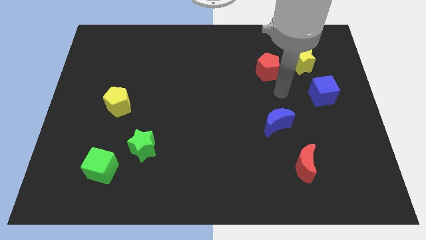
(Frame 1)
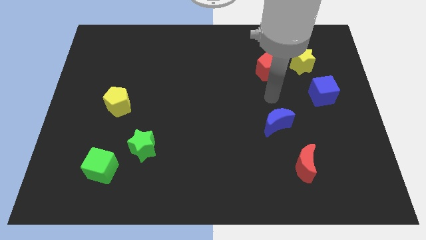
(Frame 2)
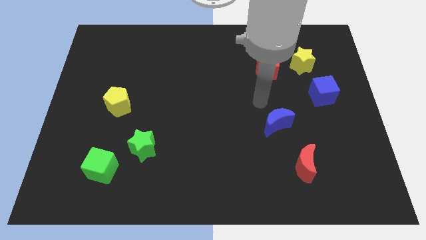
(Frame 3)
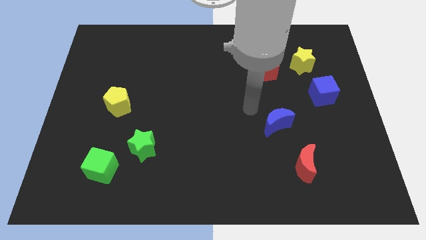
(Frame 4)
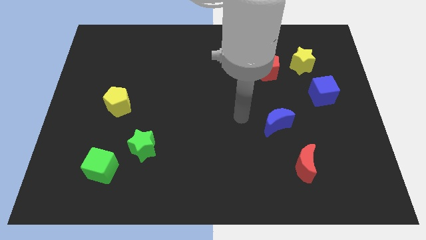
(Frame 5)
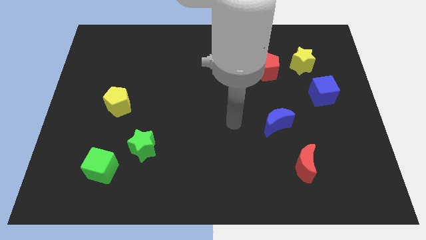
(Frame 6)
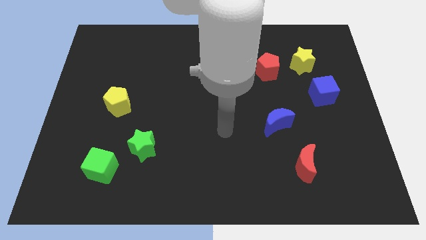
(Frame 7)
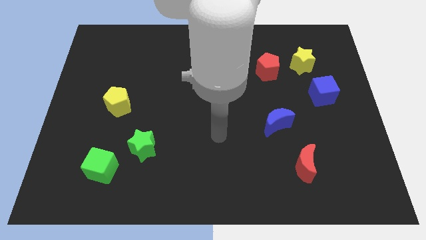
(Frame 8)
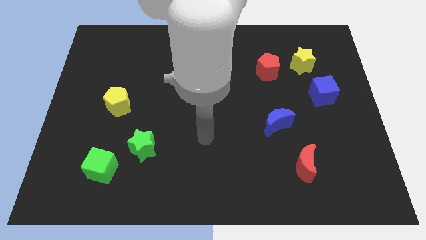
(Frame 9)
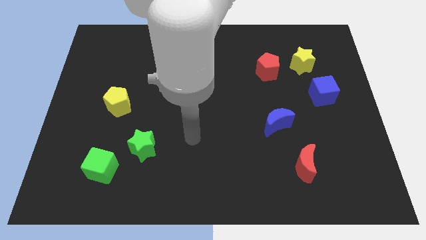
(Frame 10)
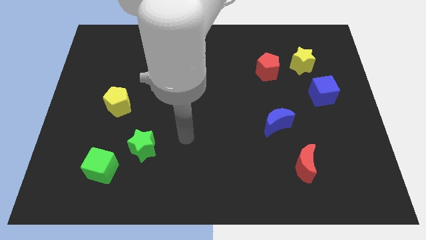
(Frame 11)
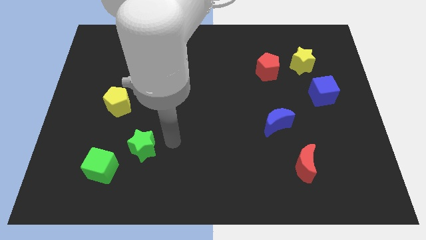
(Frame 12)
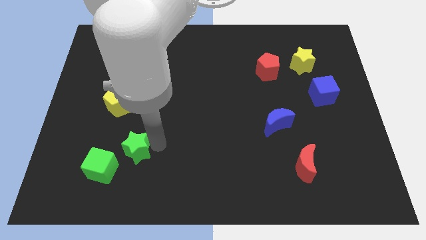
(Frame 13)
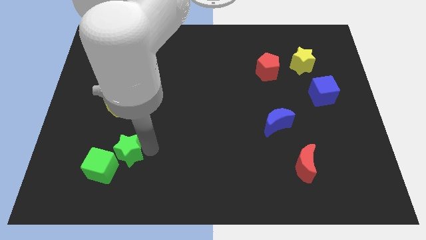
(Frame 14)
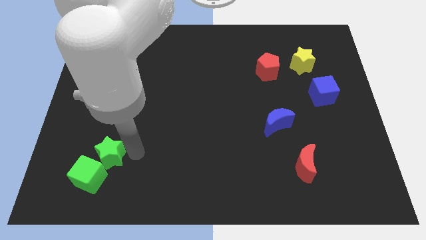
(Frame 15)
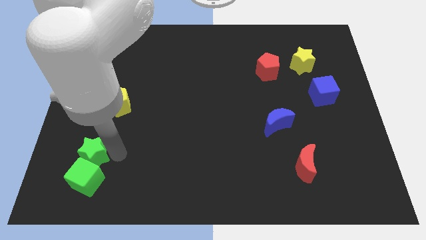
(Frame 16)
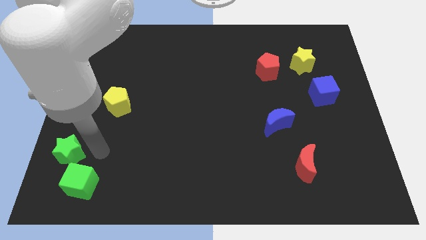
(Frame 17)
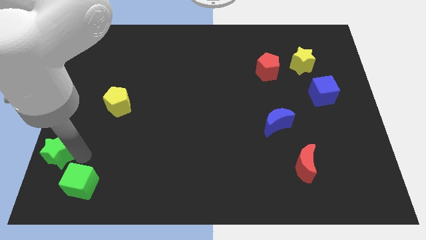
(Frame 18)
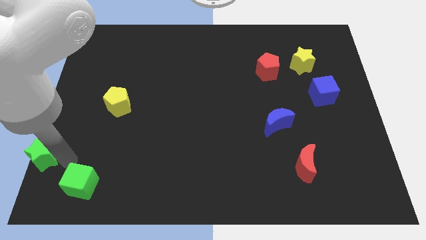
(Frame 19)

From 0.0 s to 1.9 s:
move the green cube away from the green star

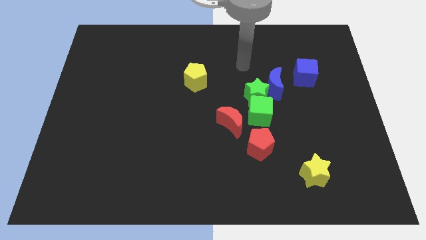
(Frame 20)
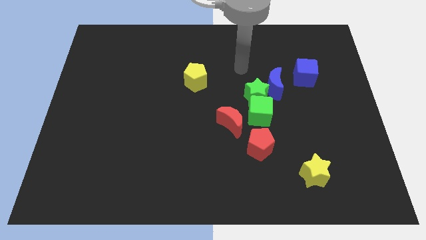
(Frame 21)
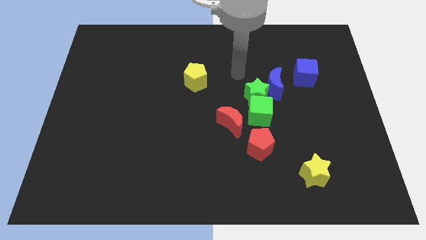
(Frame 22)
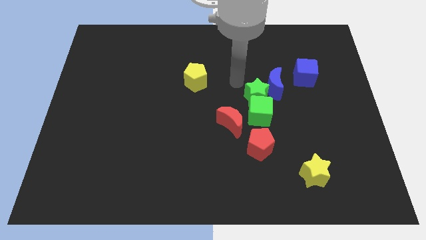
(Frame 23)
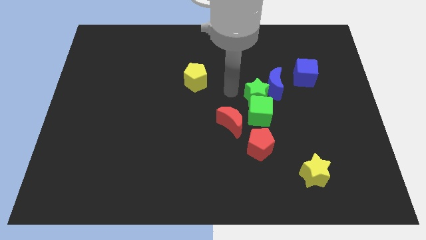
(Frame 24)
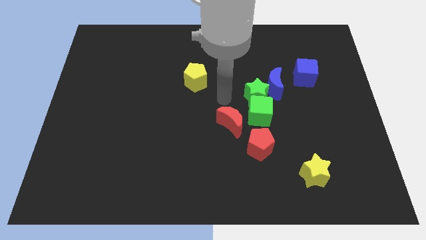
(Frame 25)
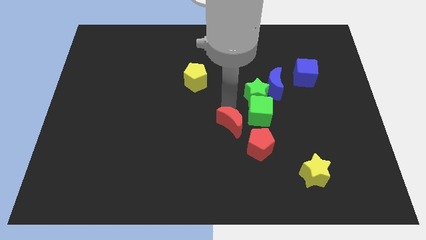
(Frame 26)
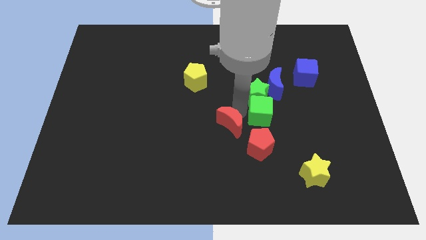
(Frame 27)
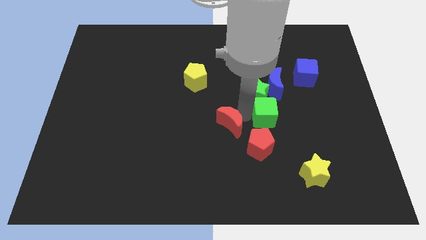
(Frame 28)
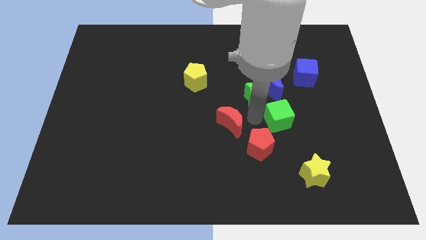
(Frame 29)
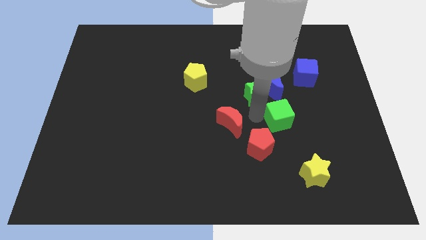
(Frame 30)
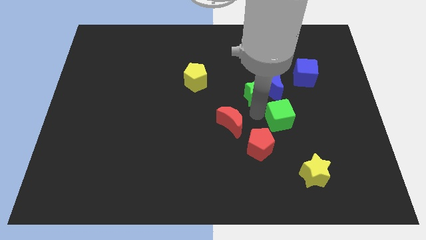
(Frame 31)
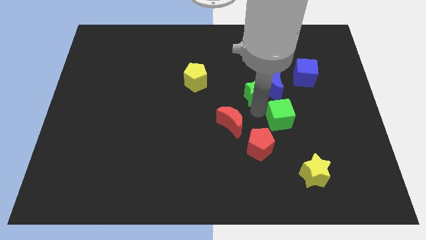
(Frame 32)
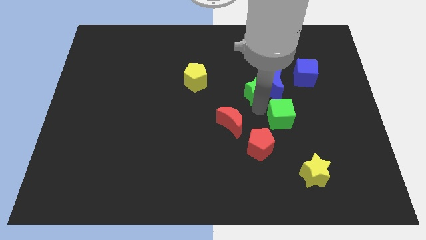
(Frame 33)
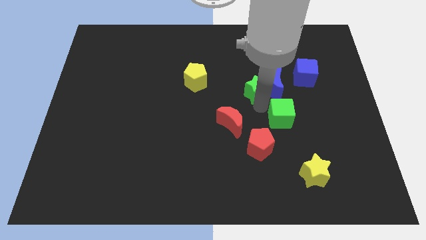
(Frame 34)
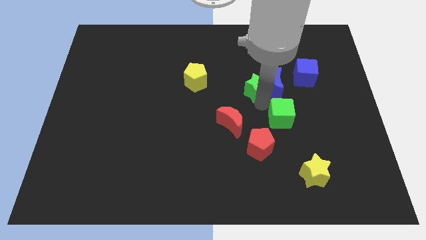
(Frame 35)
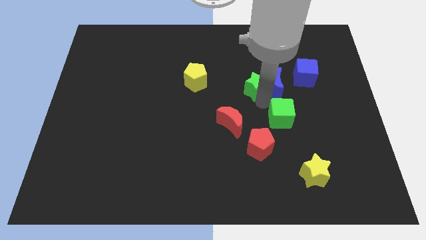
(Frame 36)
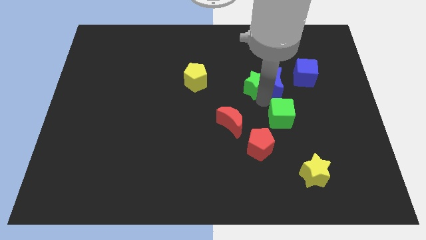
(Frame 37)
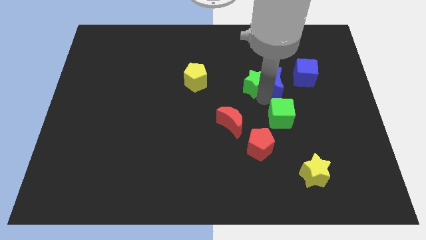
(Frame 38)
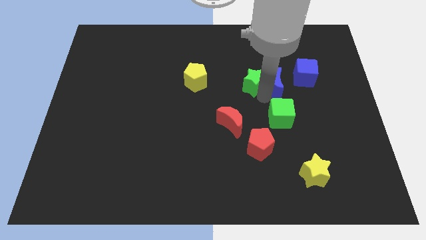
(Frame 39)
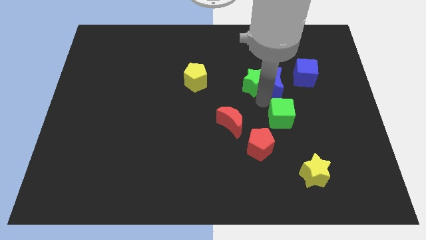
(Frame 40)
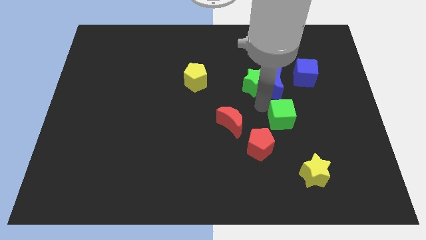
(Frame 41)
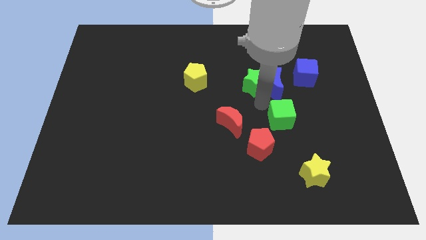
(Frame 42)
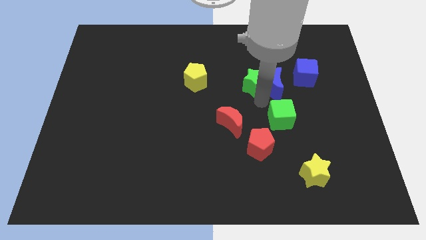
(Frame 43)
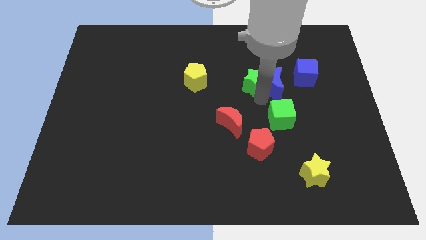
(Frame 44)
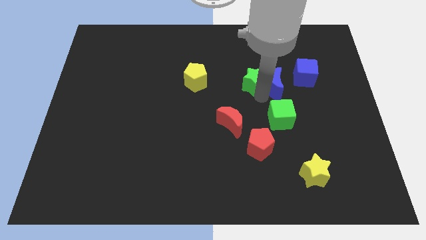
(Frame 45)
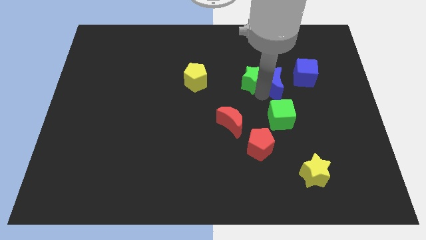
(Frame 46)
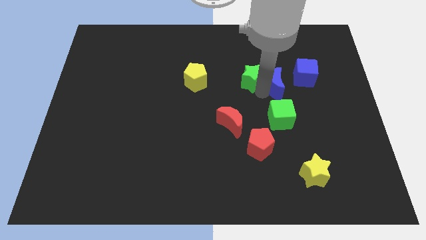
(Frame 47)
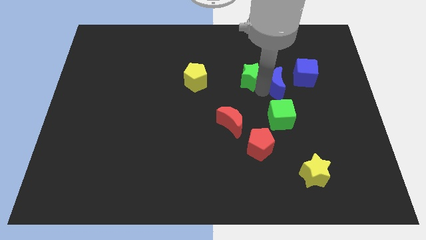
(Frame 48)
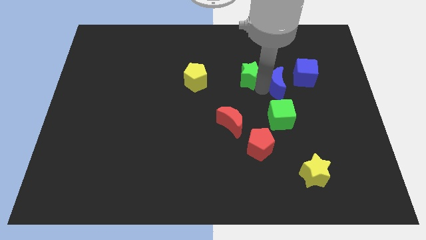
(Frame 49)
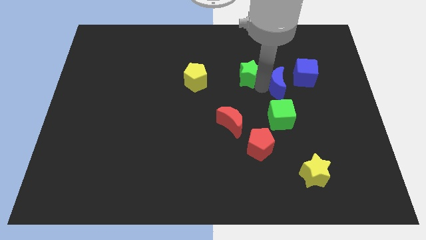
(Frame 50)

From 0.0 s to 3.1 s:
pull the green star apart from the green cube, blue moon, and red moon

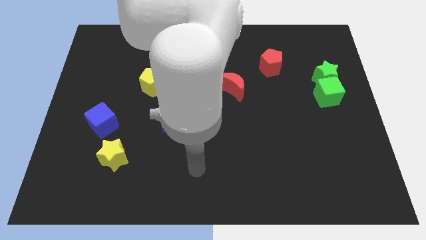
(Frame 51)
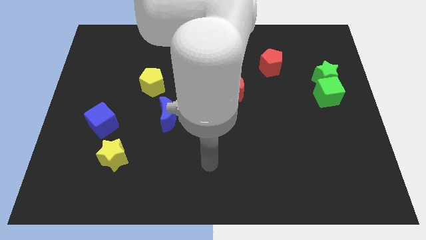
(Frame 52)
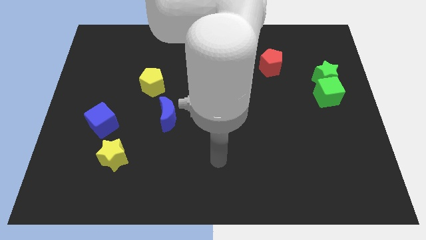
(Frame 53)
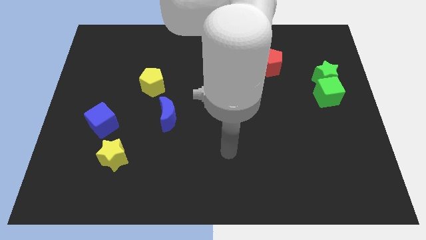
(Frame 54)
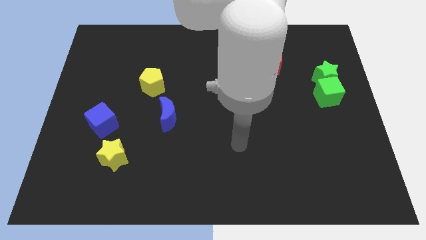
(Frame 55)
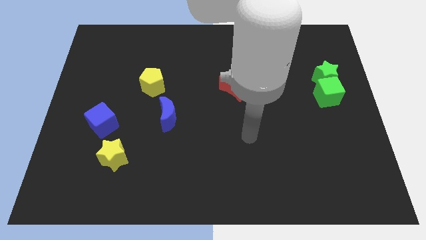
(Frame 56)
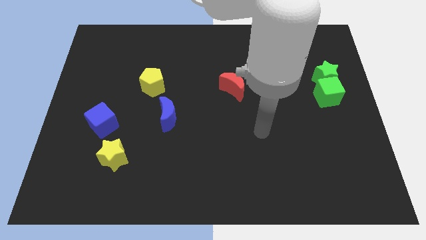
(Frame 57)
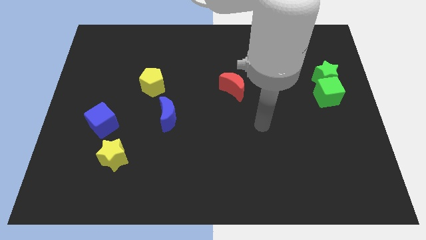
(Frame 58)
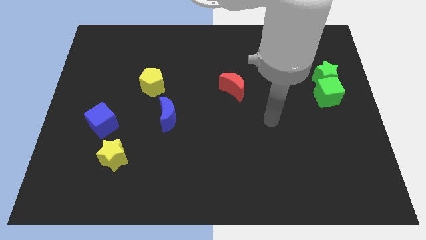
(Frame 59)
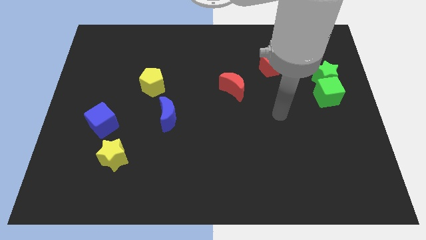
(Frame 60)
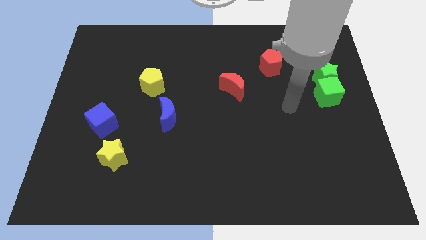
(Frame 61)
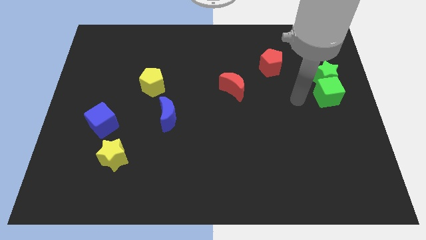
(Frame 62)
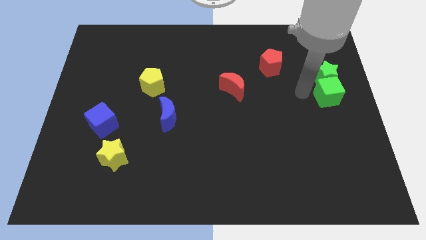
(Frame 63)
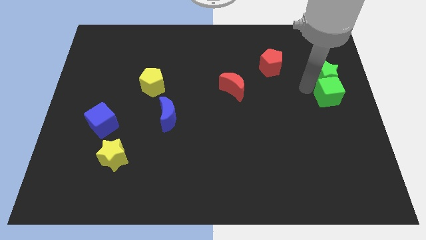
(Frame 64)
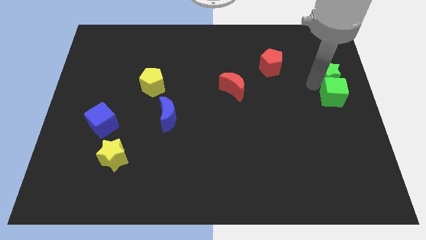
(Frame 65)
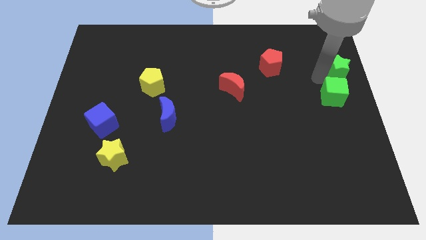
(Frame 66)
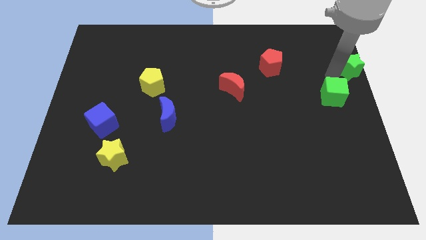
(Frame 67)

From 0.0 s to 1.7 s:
separate the green cube from the green star

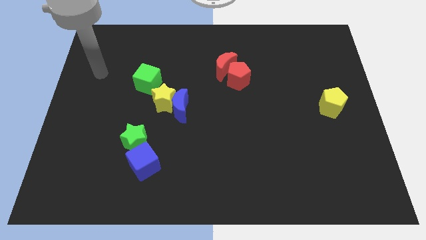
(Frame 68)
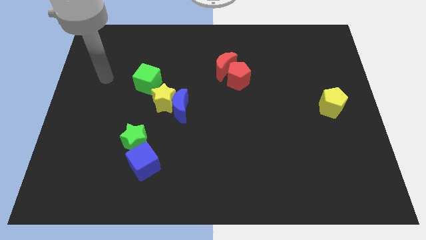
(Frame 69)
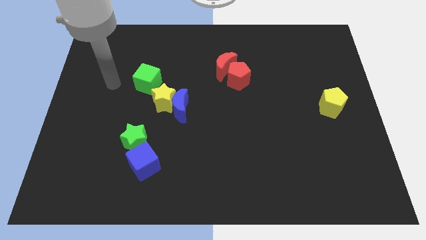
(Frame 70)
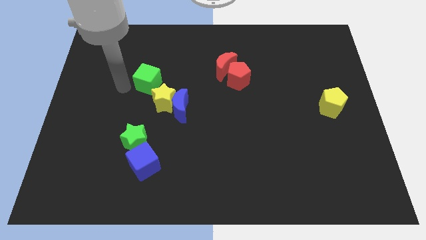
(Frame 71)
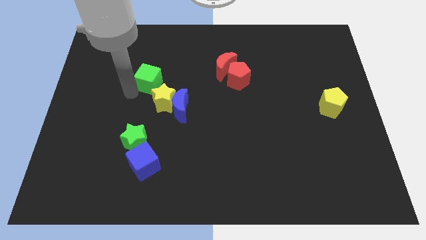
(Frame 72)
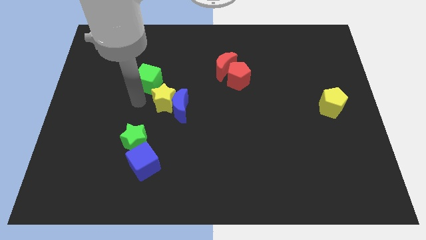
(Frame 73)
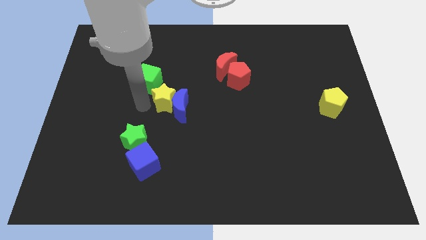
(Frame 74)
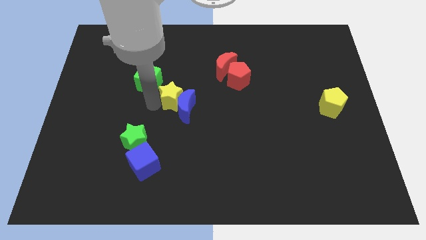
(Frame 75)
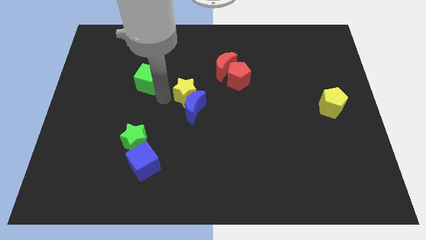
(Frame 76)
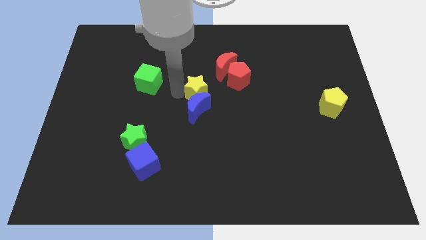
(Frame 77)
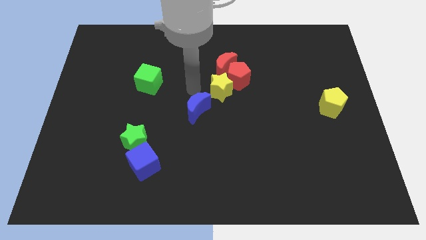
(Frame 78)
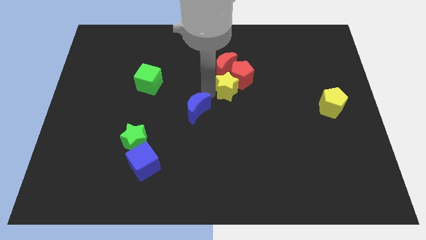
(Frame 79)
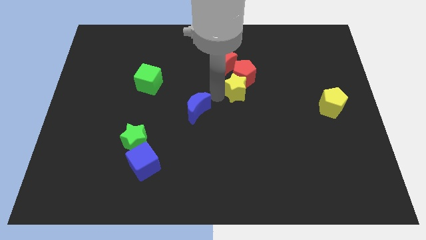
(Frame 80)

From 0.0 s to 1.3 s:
pull the blue moon apart from the yellow star

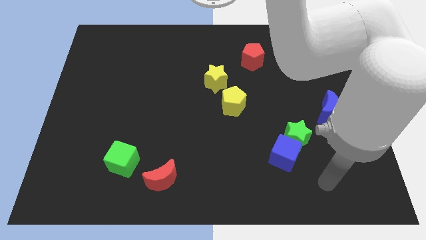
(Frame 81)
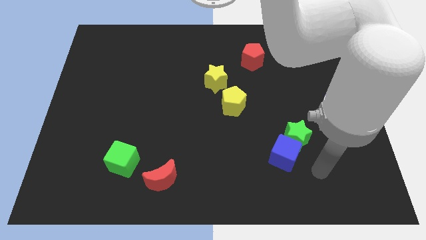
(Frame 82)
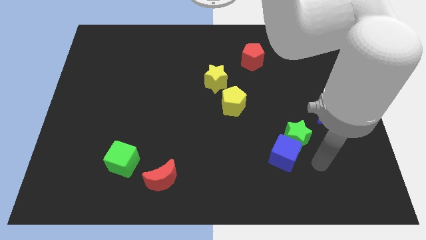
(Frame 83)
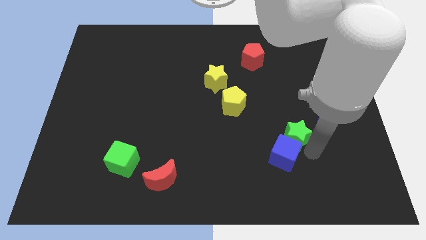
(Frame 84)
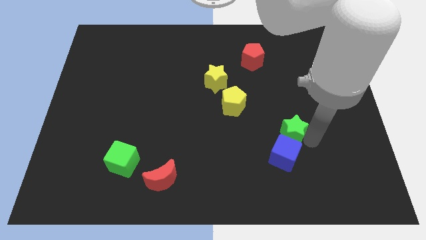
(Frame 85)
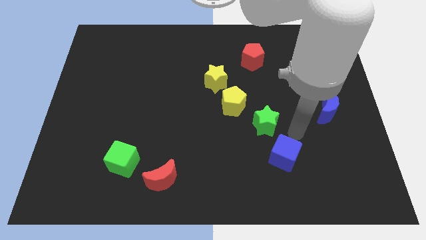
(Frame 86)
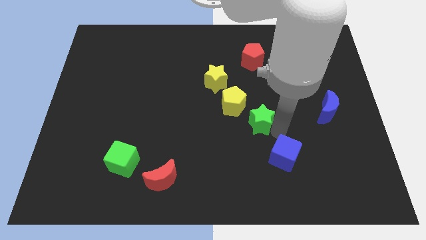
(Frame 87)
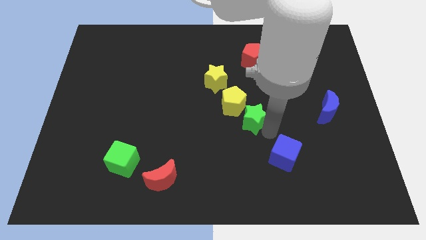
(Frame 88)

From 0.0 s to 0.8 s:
pull the blue cube apart from the green star

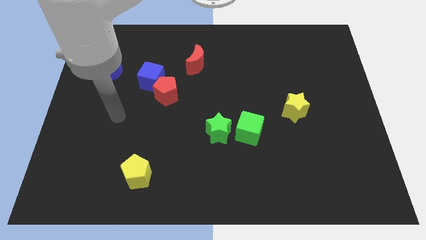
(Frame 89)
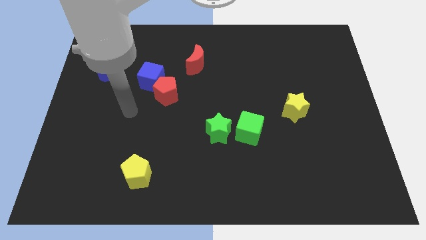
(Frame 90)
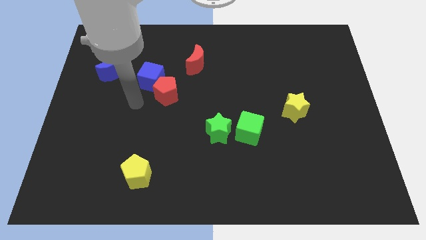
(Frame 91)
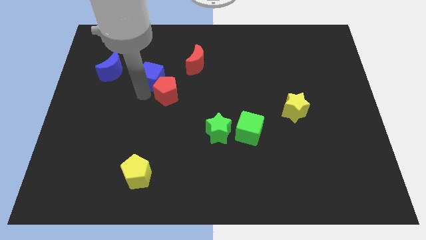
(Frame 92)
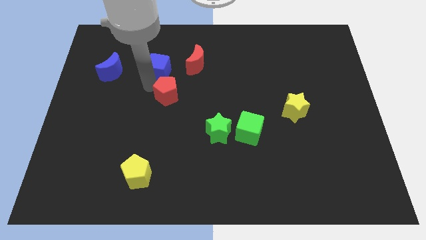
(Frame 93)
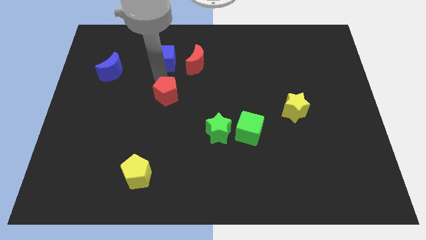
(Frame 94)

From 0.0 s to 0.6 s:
separate the red pentagon from the blue cube
